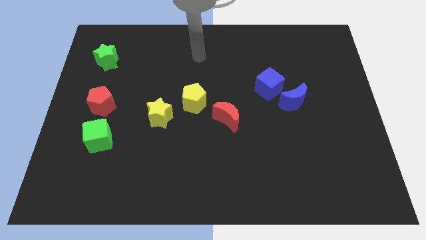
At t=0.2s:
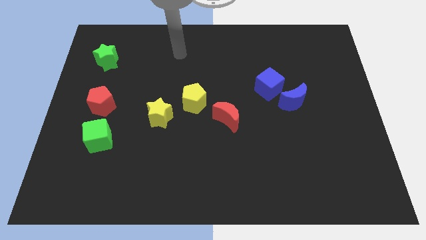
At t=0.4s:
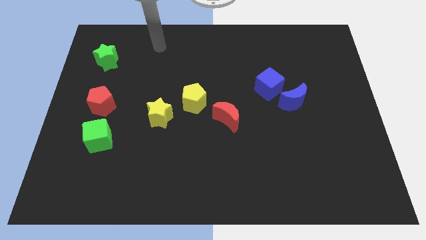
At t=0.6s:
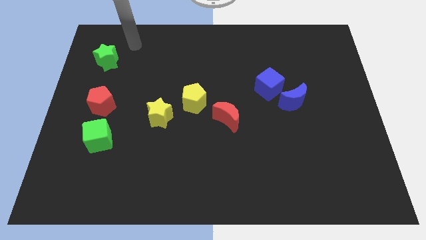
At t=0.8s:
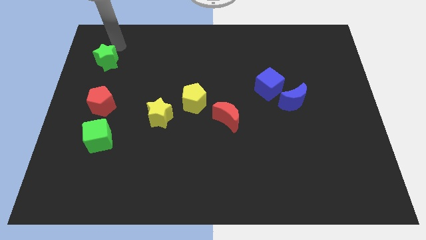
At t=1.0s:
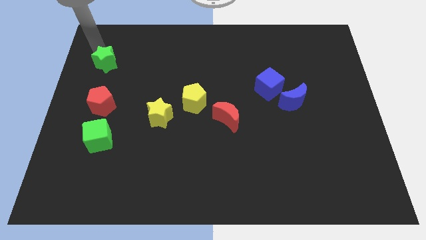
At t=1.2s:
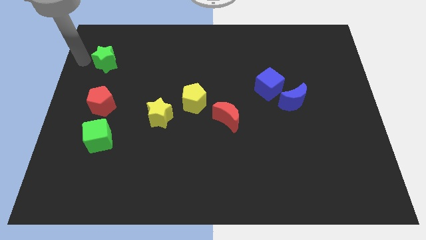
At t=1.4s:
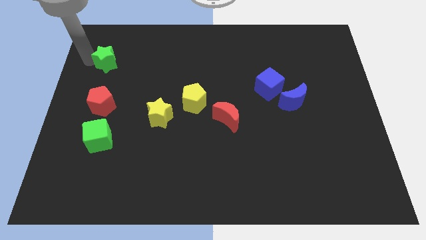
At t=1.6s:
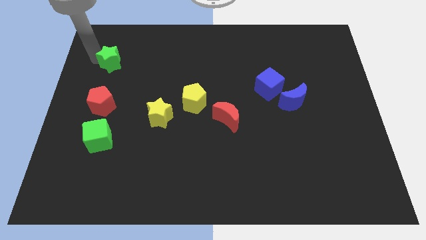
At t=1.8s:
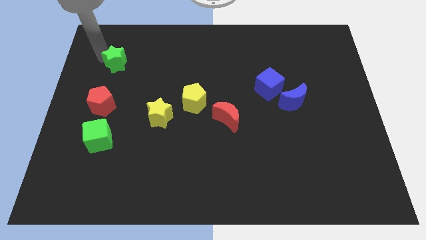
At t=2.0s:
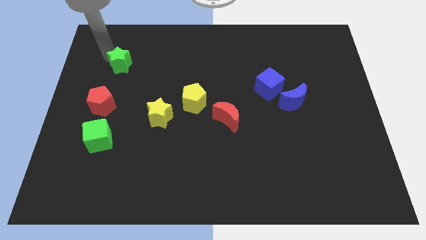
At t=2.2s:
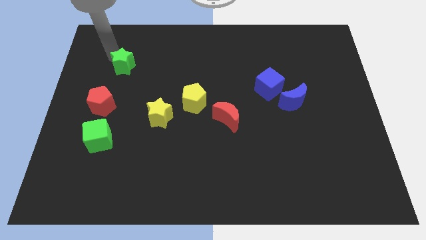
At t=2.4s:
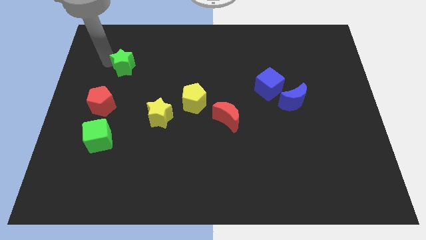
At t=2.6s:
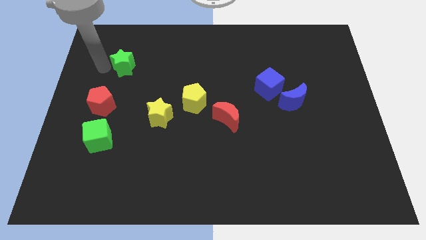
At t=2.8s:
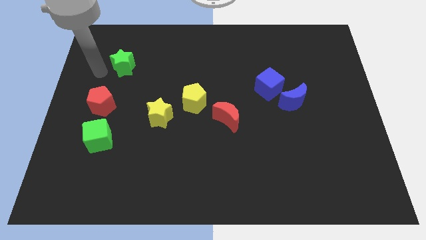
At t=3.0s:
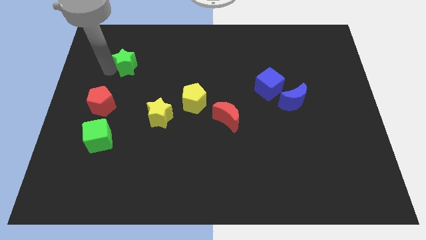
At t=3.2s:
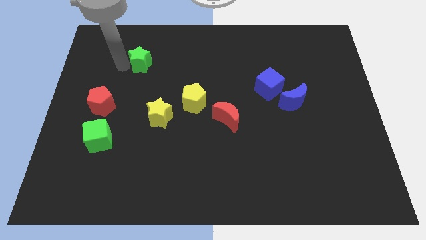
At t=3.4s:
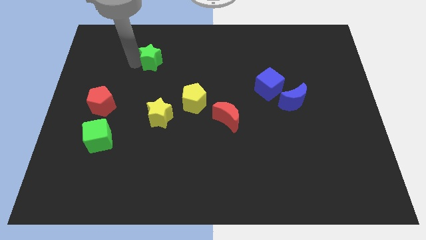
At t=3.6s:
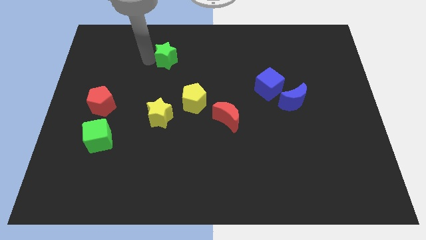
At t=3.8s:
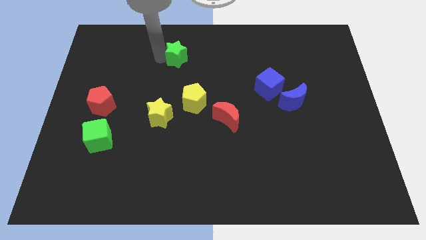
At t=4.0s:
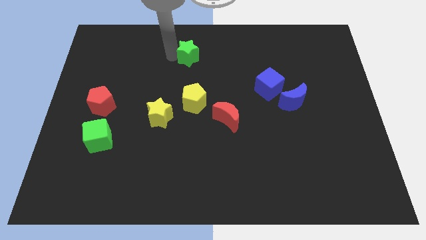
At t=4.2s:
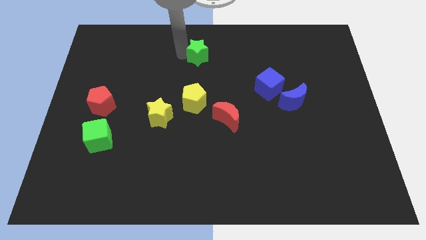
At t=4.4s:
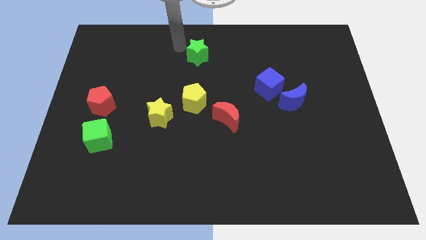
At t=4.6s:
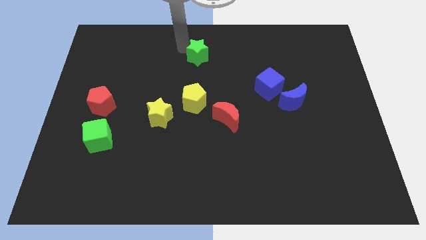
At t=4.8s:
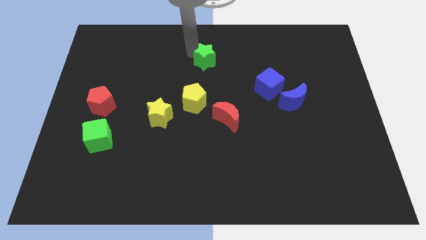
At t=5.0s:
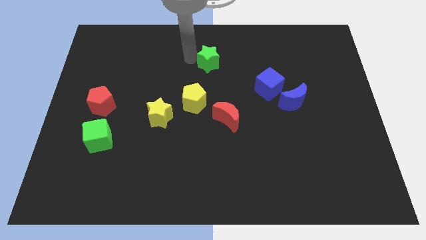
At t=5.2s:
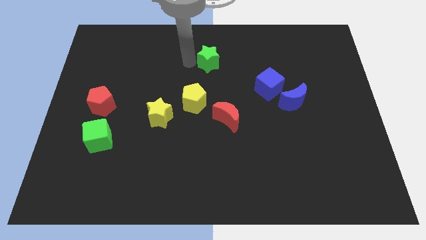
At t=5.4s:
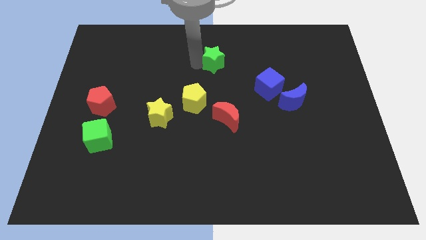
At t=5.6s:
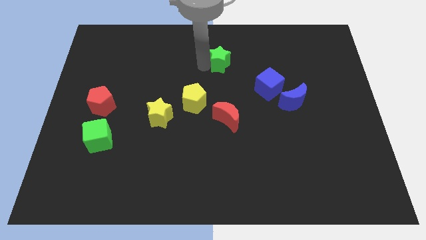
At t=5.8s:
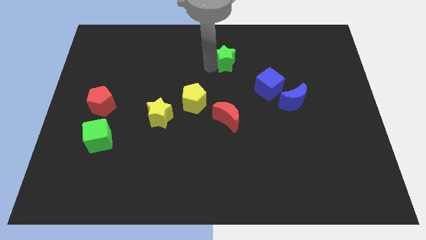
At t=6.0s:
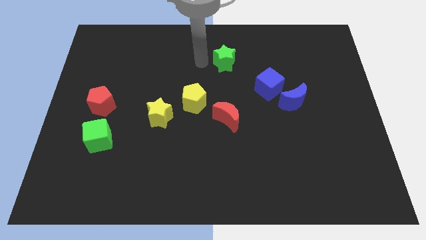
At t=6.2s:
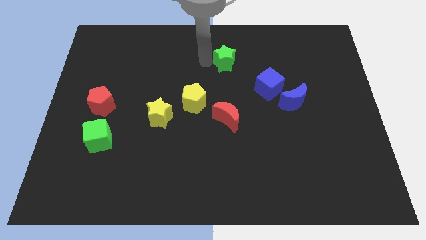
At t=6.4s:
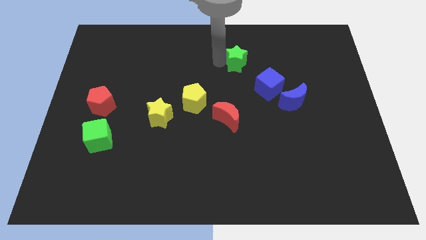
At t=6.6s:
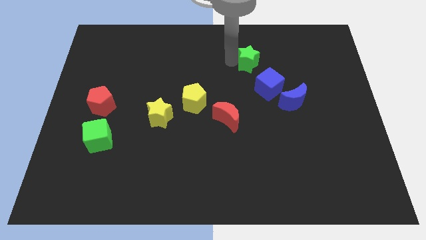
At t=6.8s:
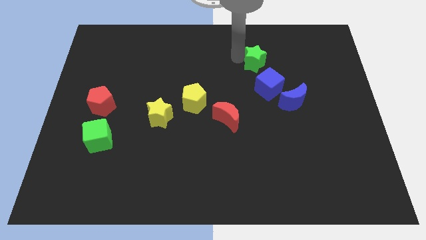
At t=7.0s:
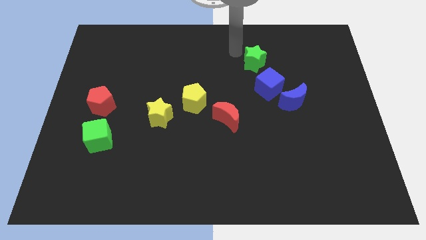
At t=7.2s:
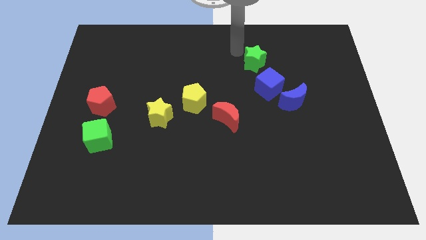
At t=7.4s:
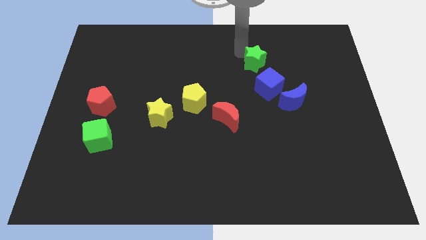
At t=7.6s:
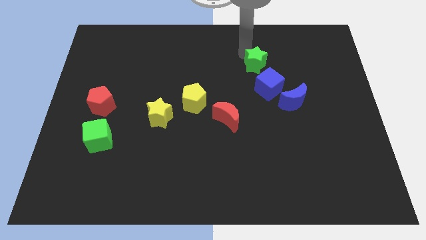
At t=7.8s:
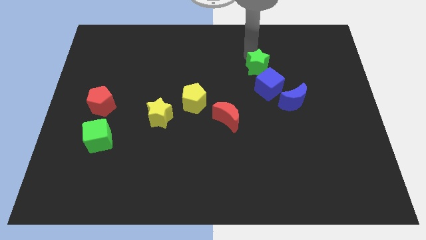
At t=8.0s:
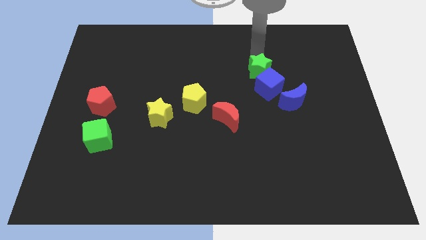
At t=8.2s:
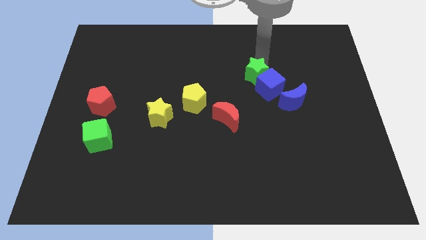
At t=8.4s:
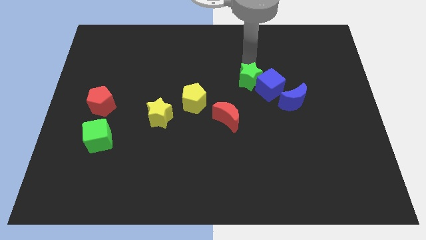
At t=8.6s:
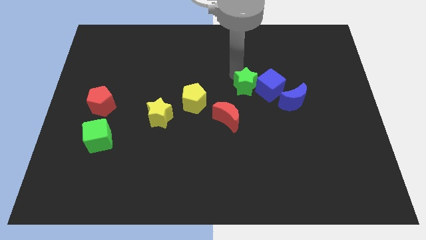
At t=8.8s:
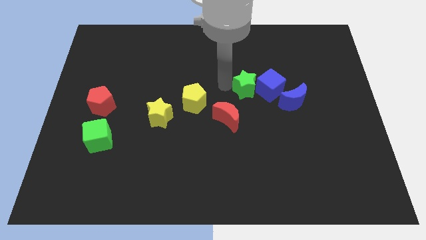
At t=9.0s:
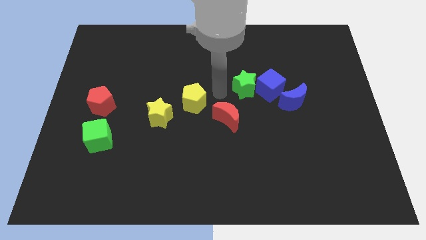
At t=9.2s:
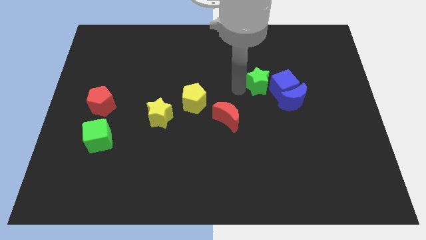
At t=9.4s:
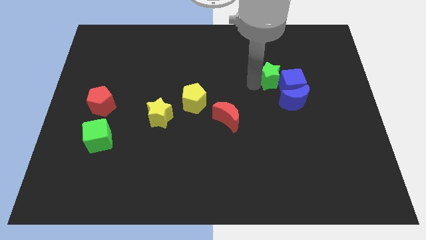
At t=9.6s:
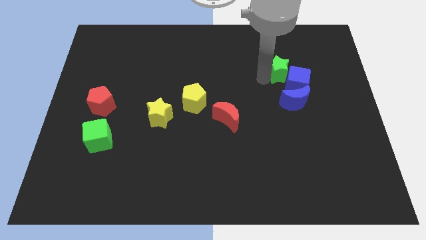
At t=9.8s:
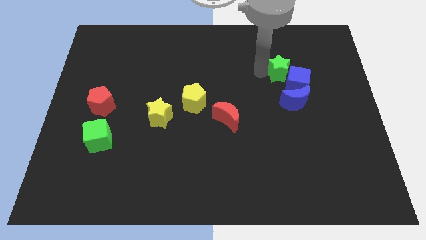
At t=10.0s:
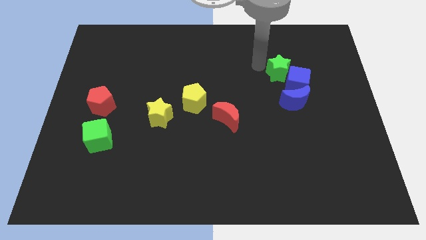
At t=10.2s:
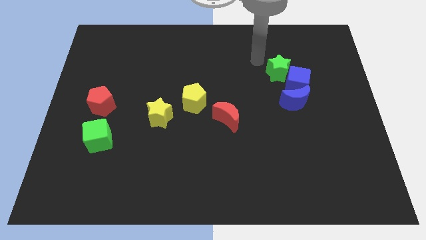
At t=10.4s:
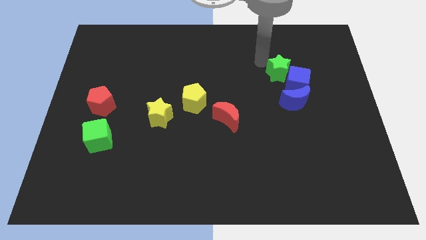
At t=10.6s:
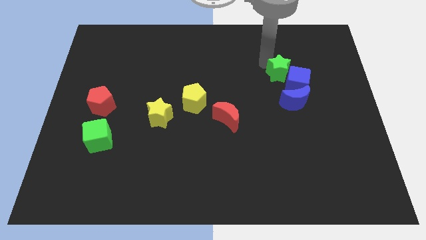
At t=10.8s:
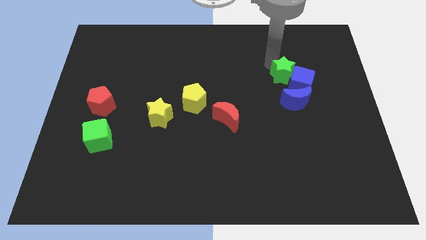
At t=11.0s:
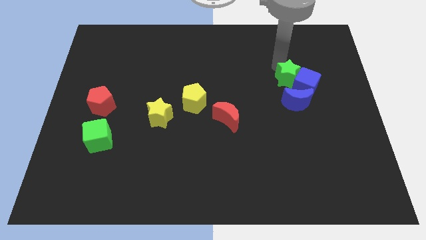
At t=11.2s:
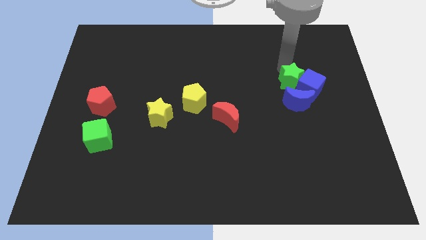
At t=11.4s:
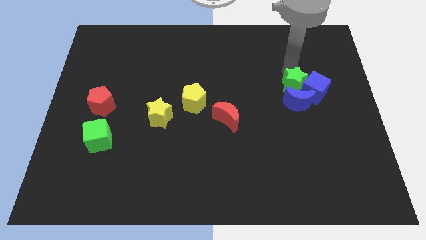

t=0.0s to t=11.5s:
move the green star to the top right of the blue moon
